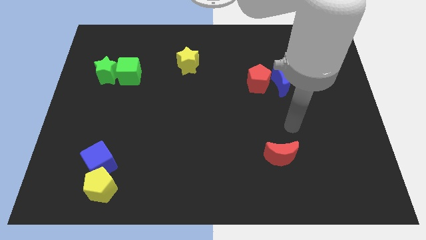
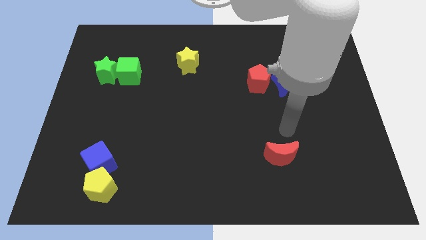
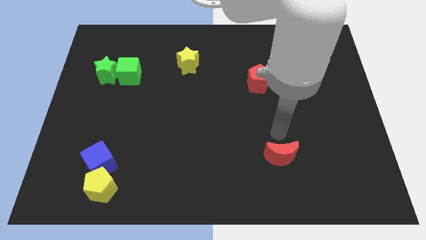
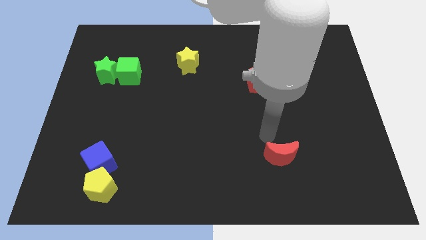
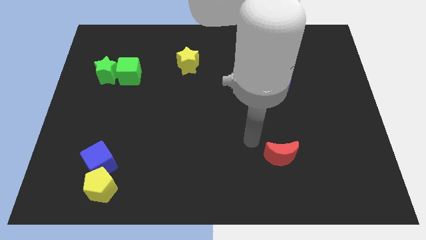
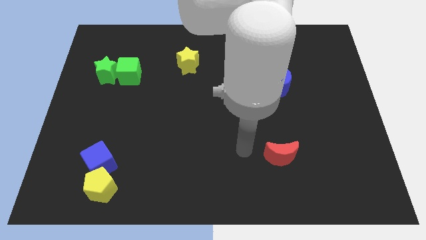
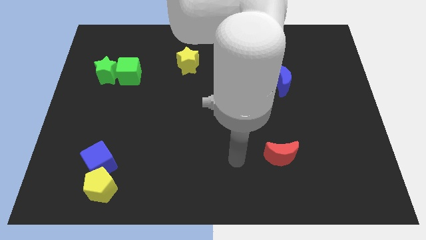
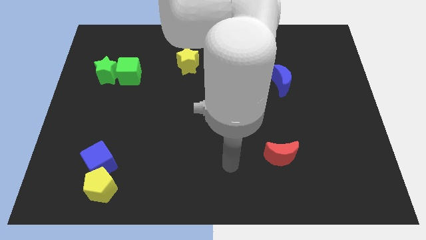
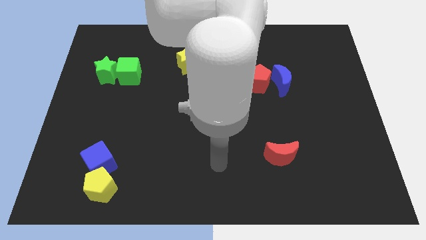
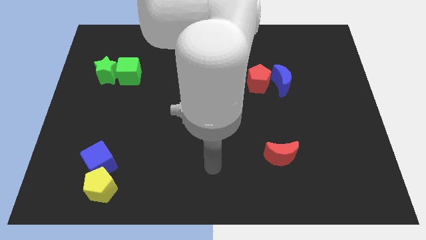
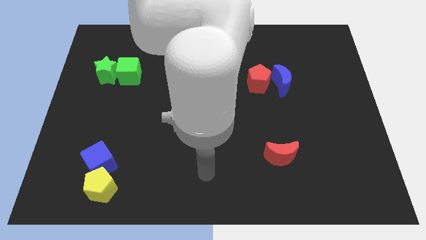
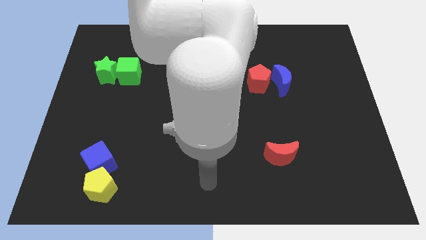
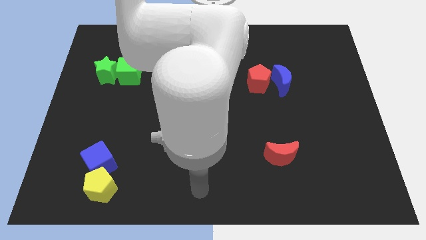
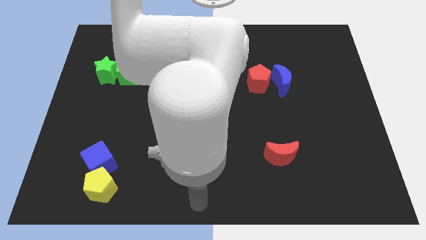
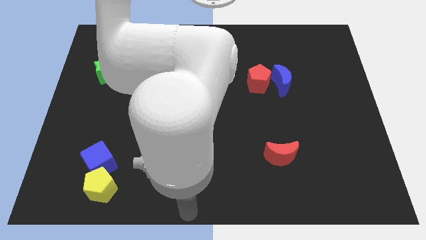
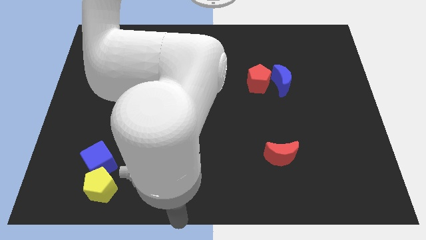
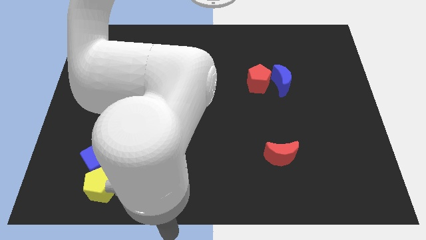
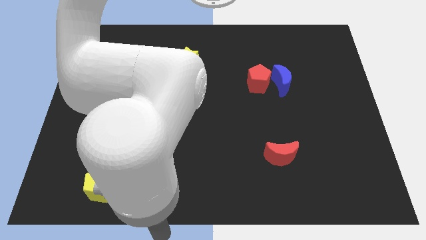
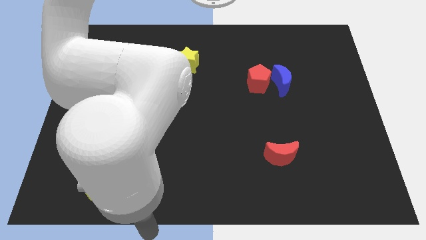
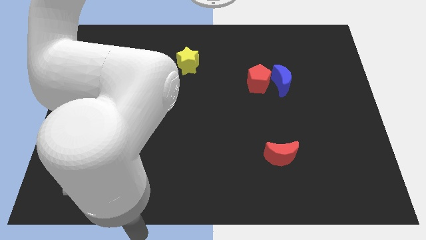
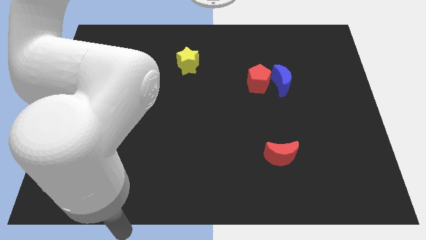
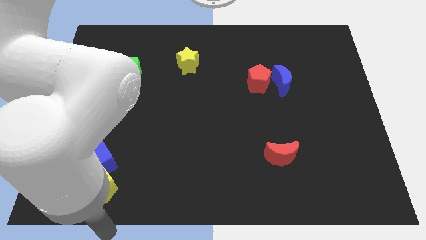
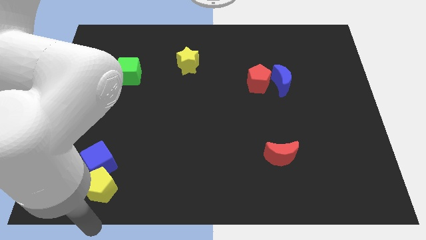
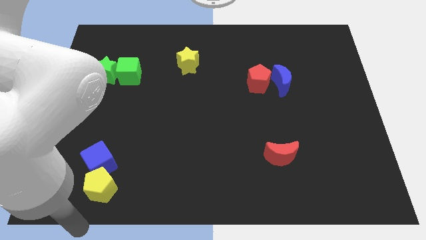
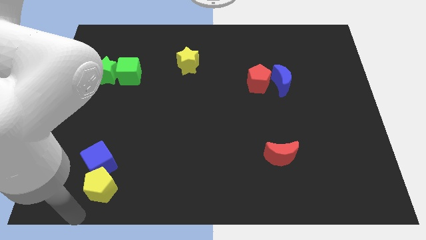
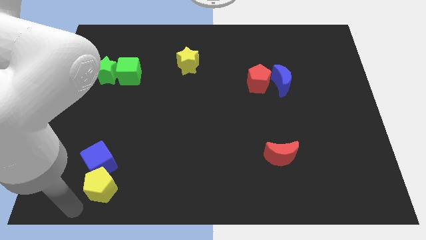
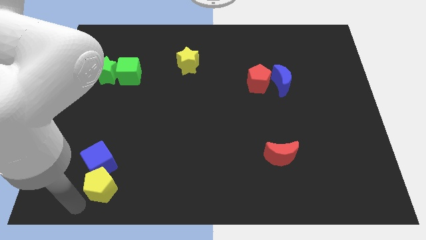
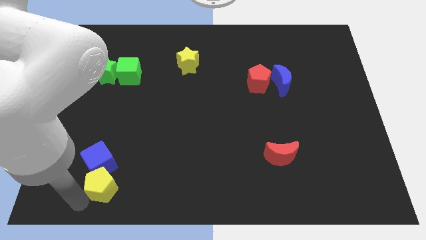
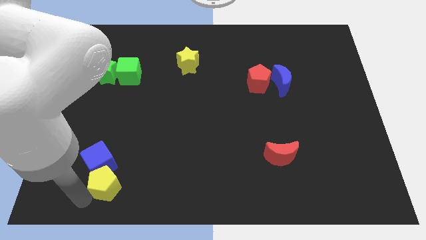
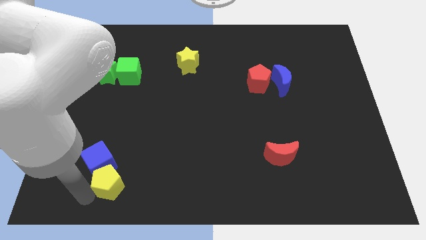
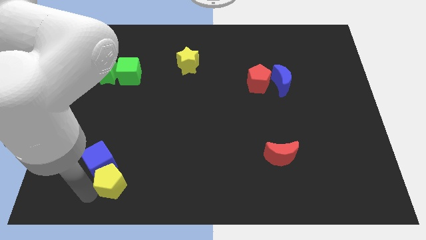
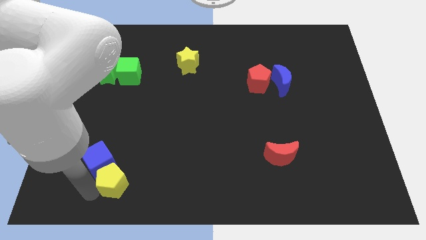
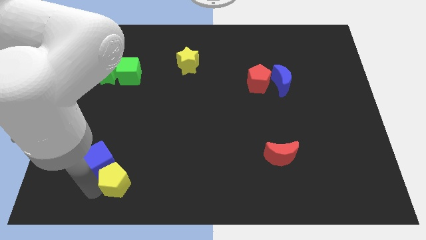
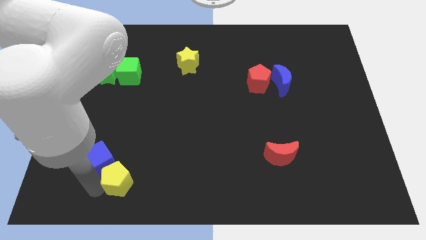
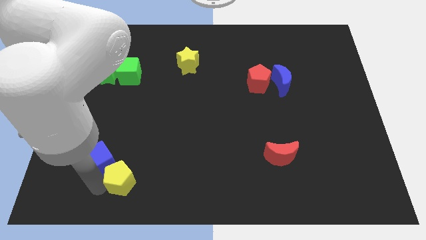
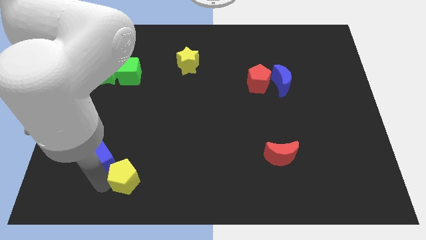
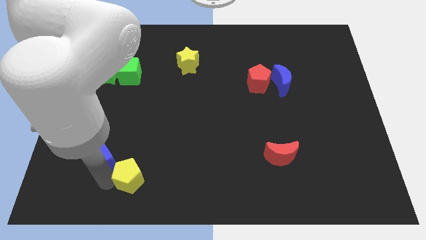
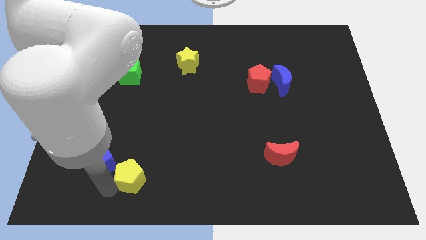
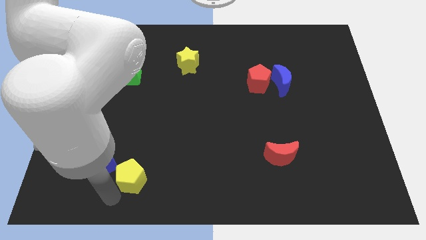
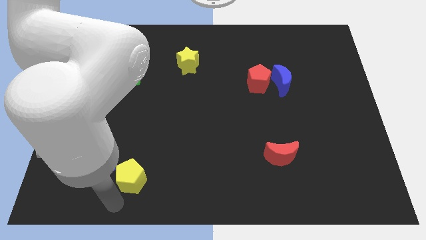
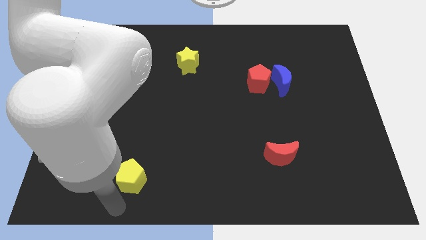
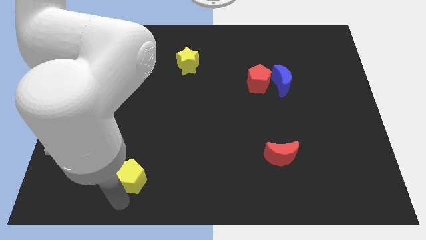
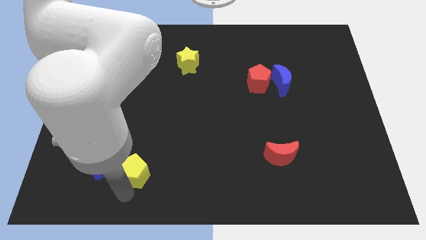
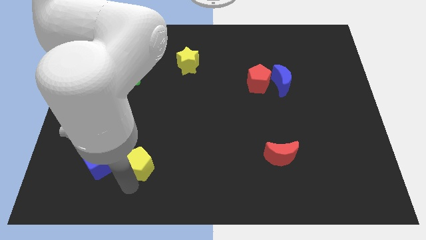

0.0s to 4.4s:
slide the yellow pentagon a little bit diagonally upwards and to the right

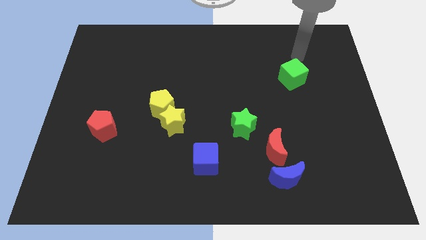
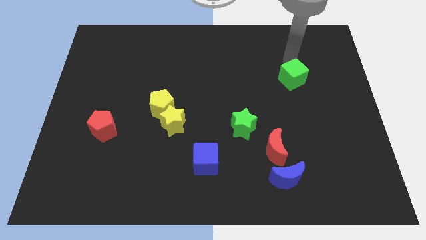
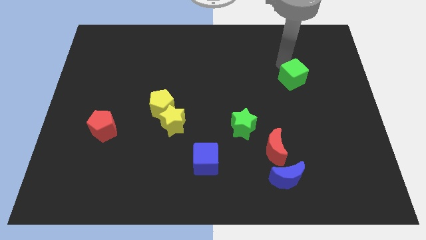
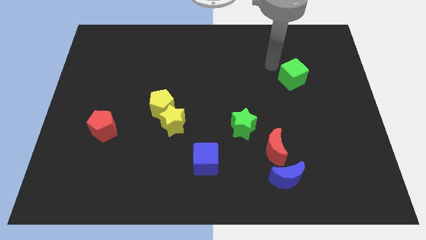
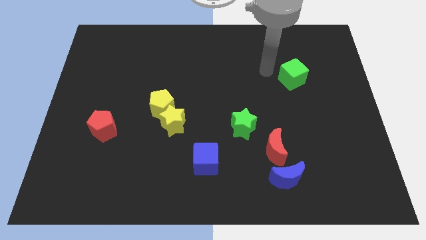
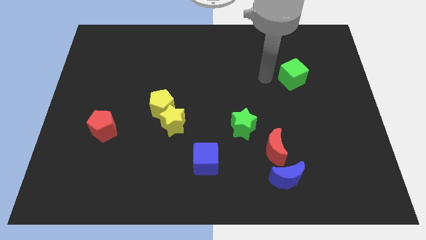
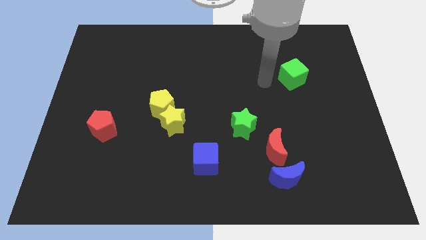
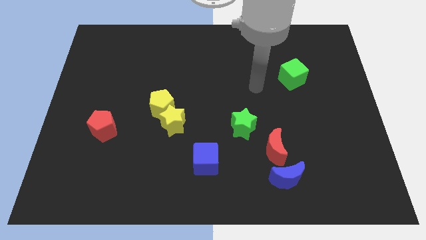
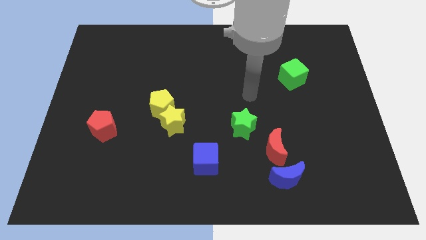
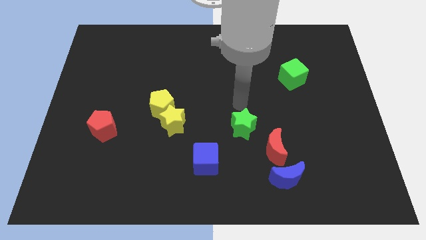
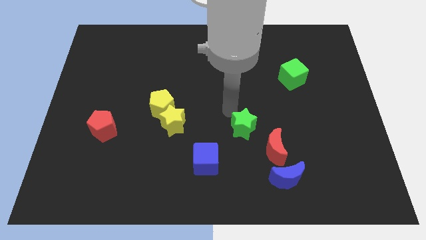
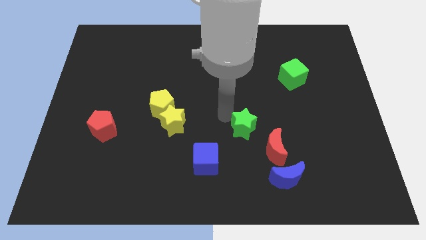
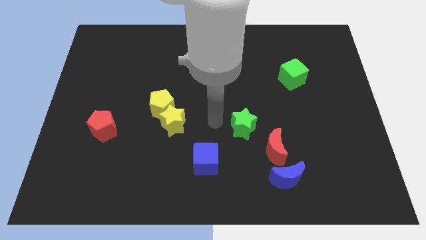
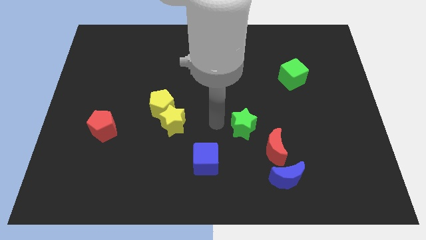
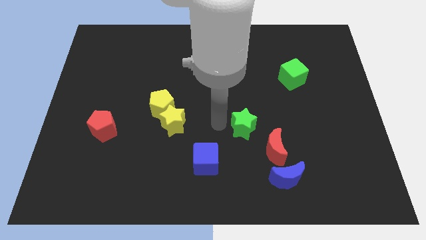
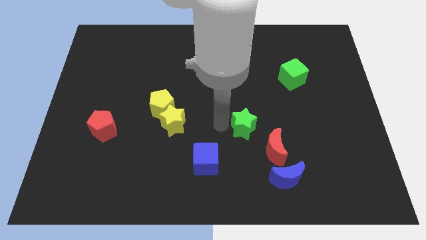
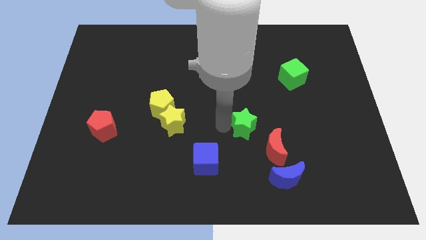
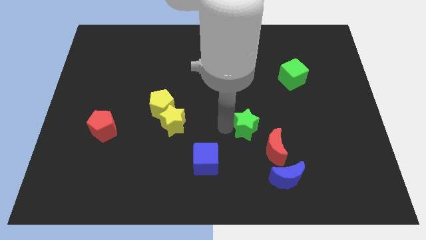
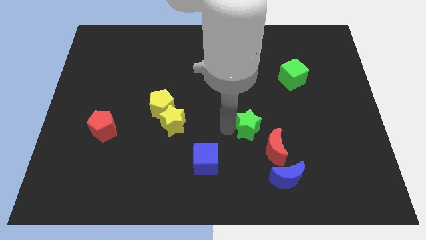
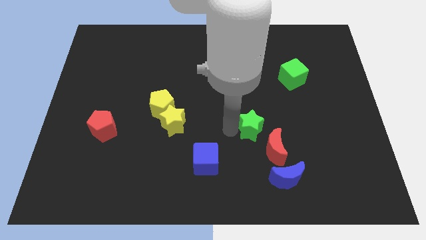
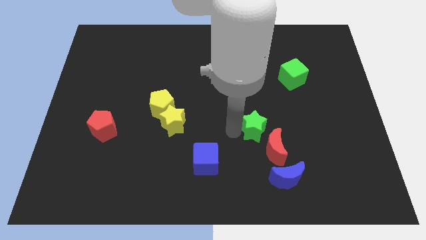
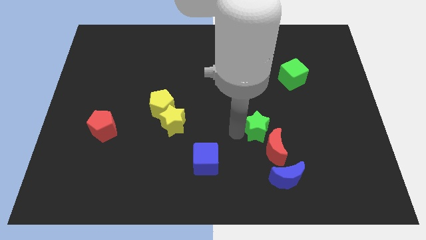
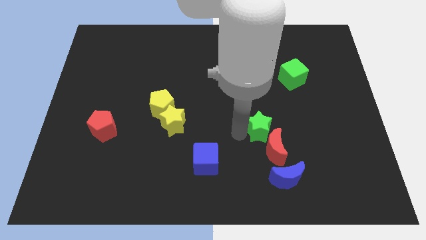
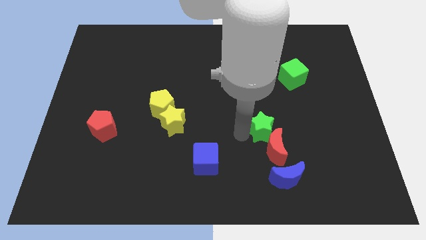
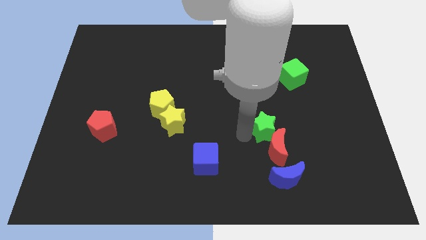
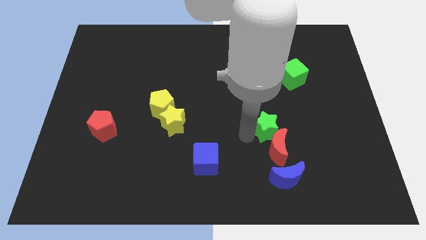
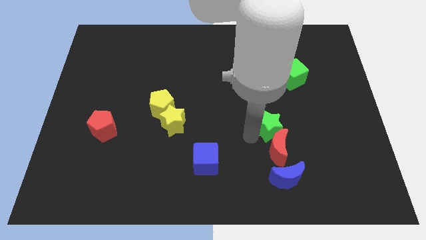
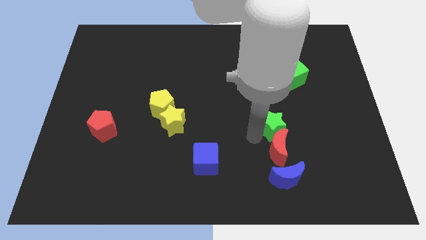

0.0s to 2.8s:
slide the green star right somewhat

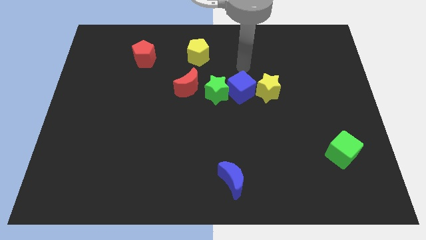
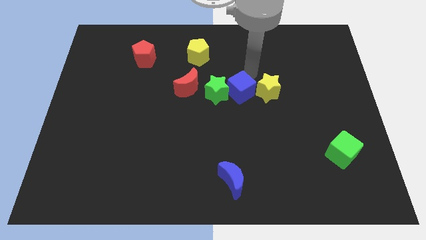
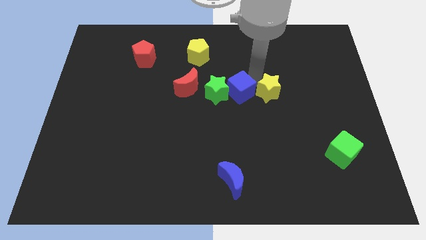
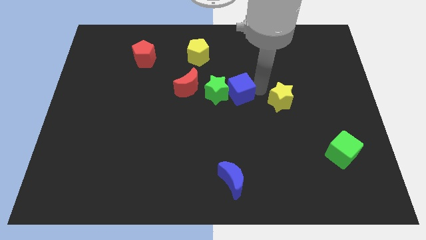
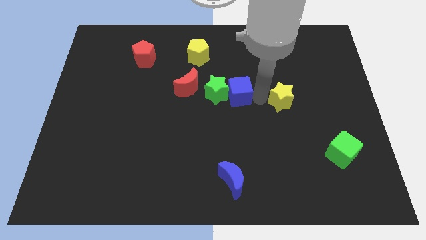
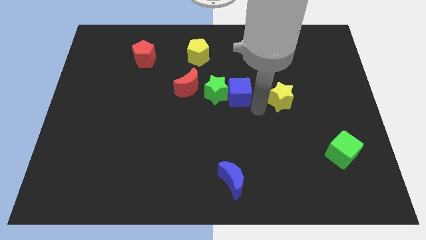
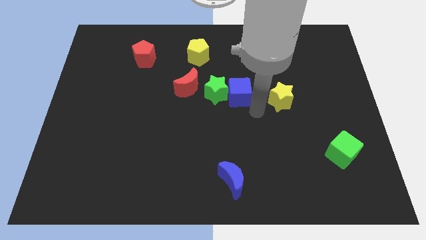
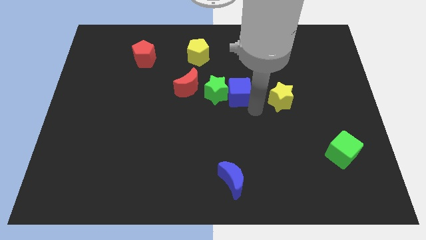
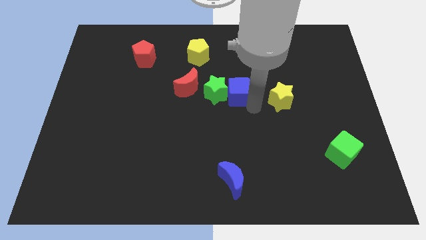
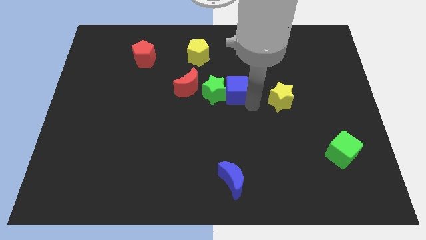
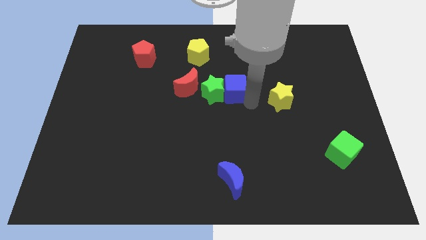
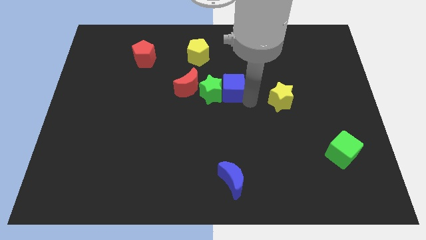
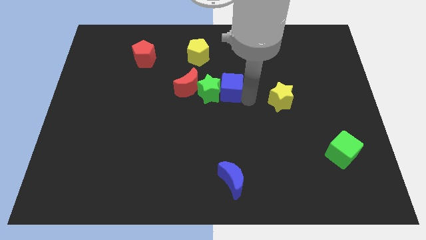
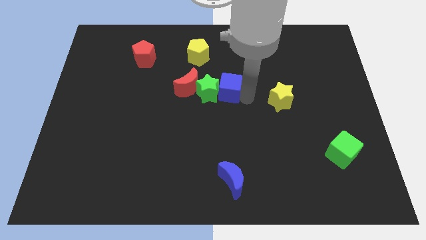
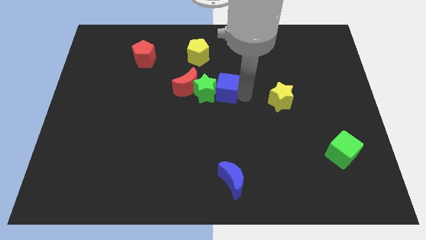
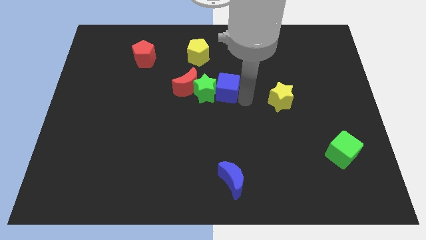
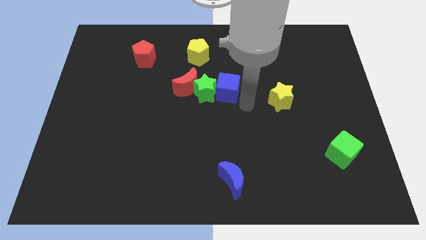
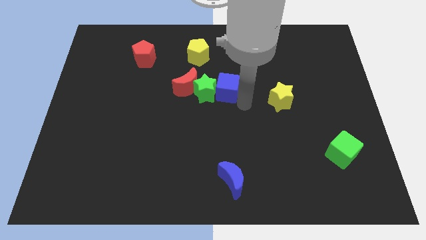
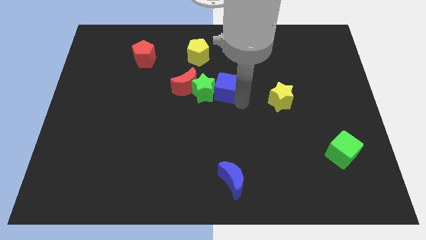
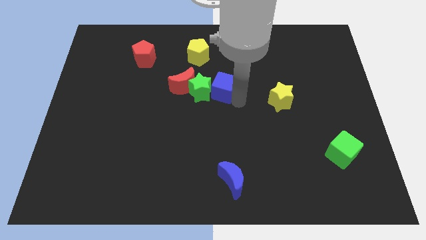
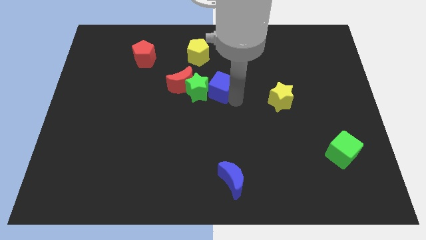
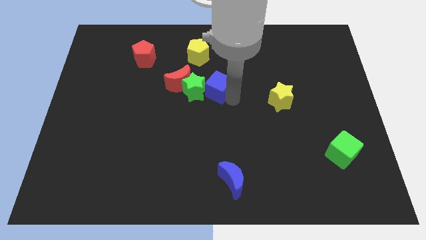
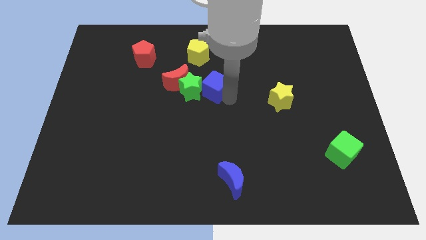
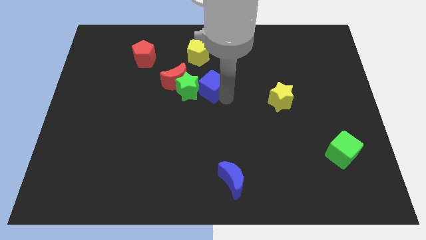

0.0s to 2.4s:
push the blue cube left a little
